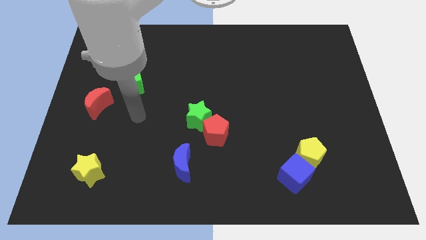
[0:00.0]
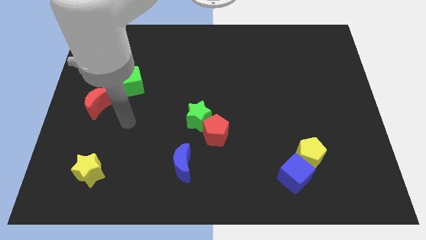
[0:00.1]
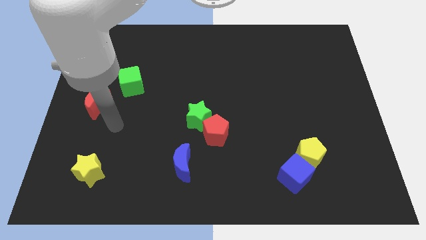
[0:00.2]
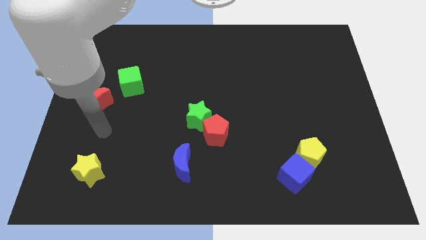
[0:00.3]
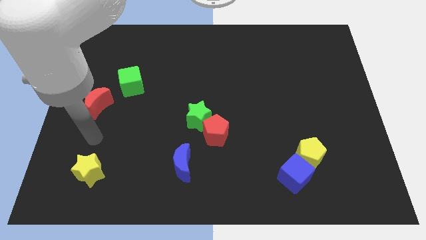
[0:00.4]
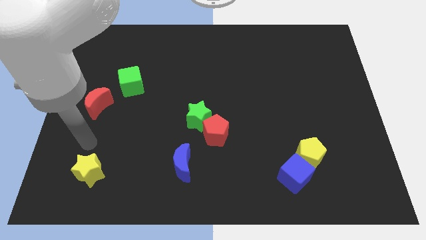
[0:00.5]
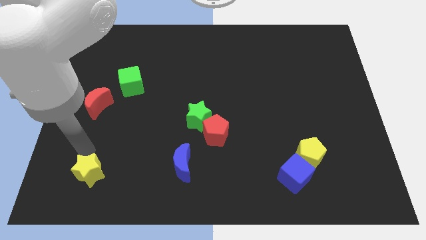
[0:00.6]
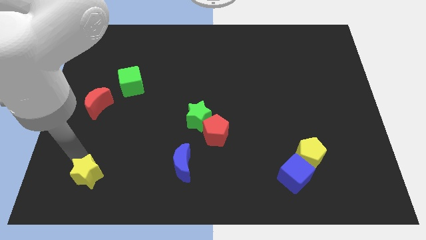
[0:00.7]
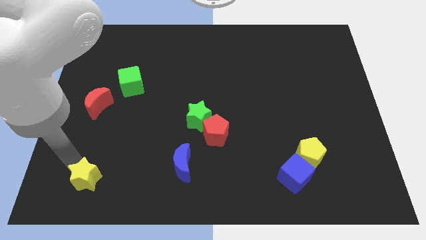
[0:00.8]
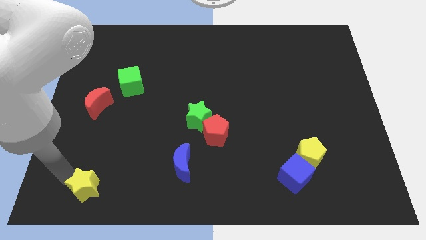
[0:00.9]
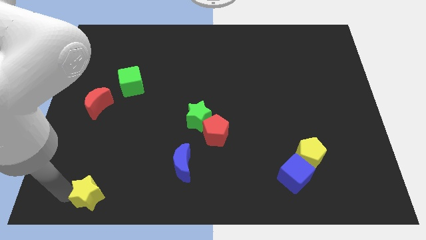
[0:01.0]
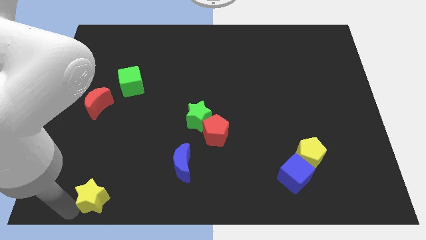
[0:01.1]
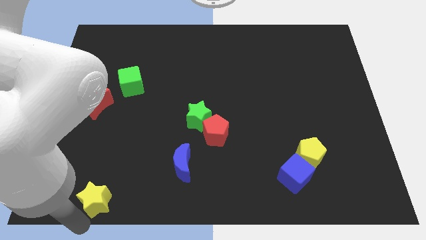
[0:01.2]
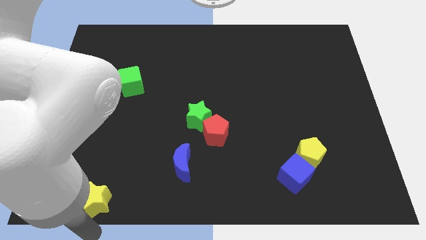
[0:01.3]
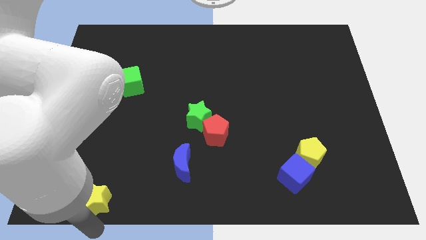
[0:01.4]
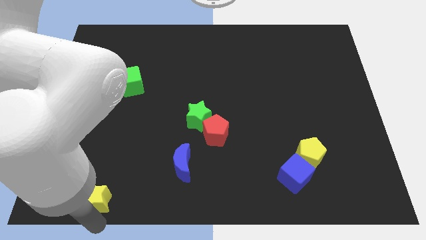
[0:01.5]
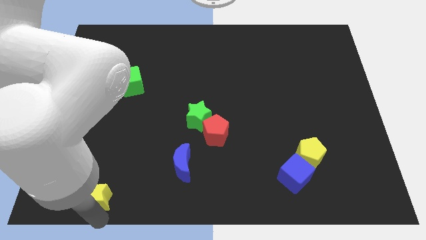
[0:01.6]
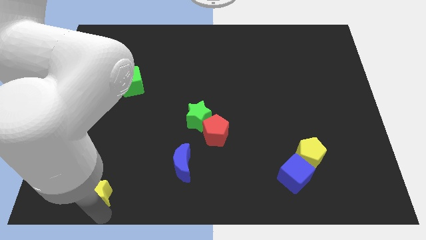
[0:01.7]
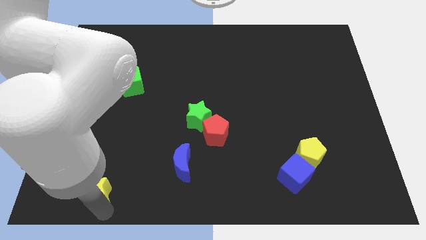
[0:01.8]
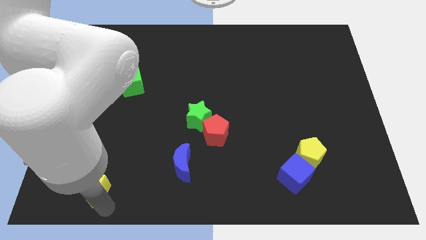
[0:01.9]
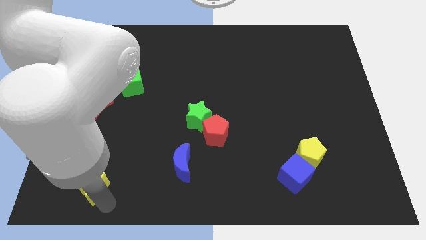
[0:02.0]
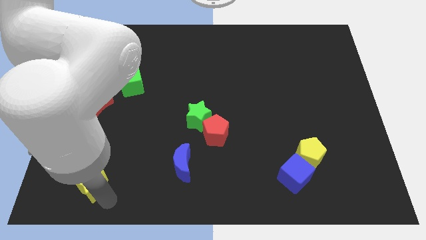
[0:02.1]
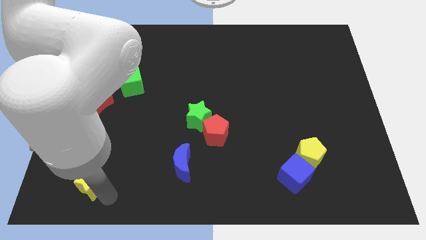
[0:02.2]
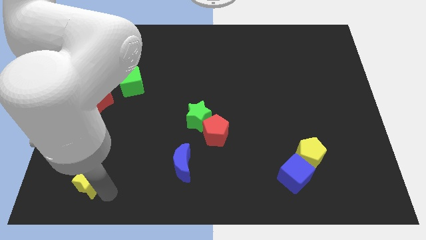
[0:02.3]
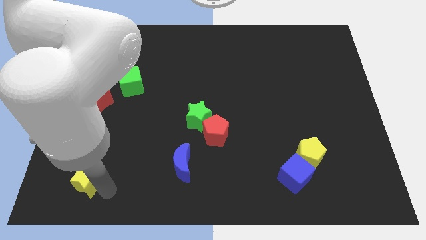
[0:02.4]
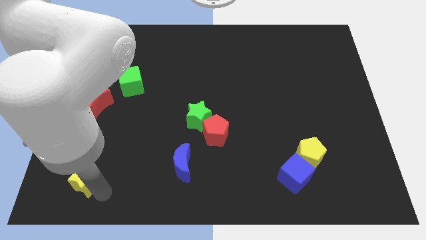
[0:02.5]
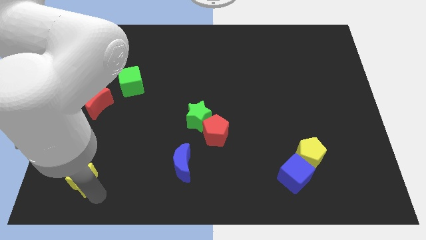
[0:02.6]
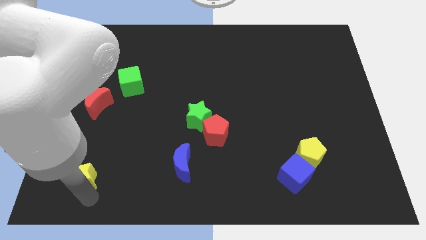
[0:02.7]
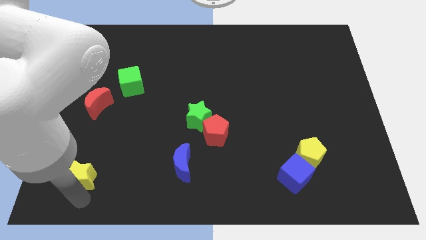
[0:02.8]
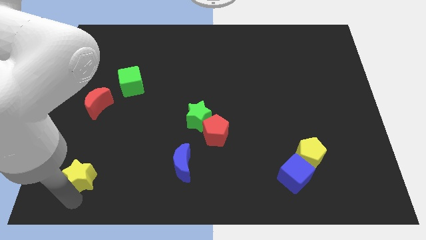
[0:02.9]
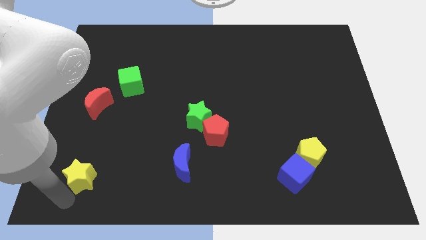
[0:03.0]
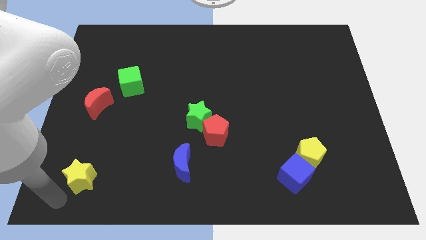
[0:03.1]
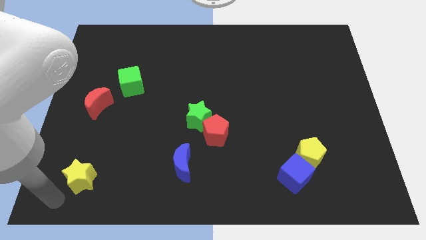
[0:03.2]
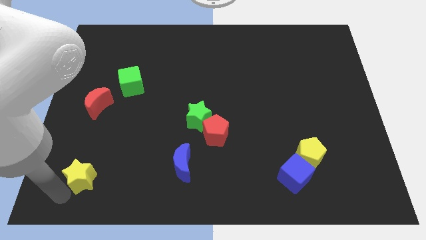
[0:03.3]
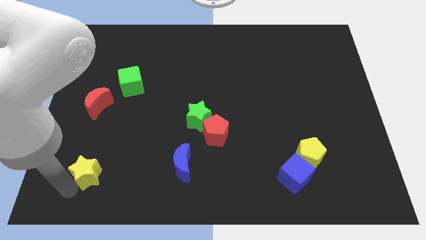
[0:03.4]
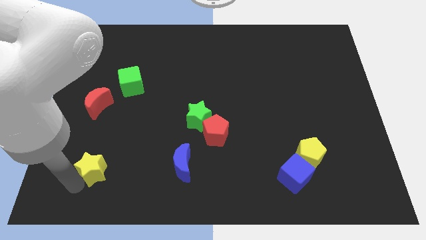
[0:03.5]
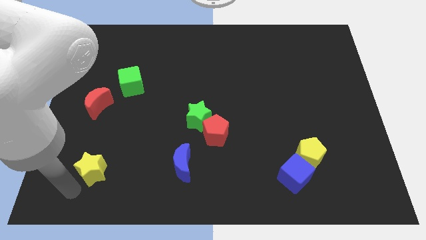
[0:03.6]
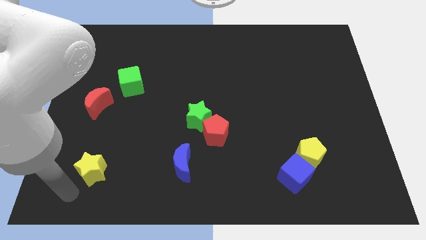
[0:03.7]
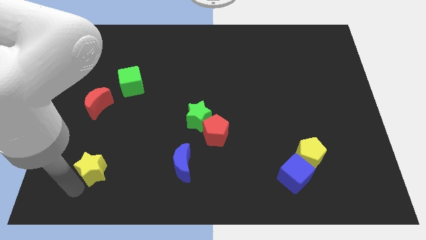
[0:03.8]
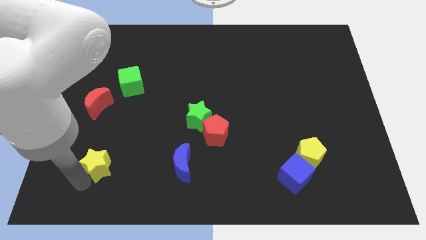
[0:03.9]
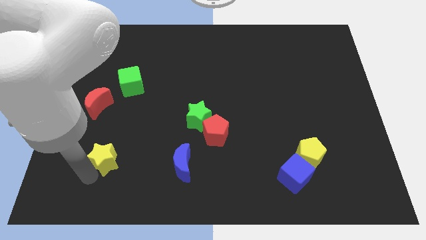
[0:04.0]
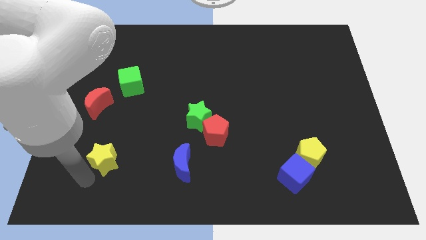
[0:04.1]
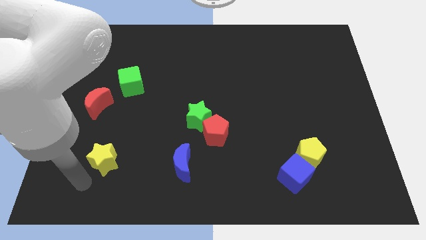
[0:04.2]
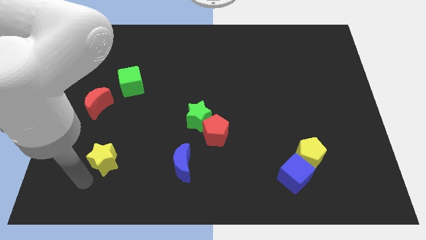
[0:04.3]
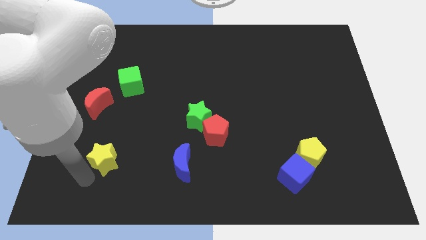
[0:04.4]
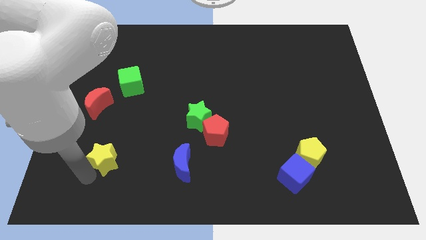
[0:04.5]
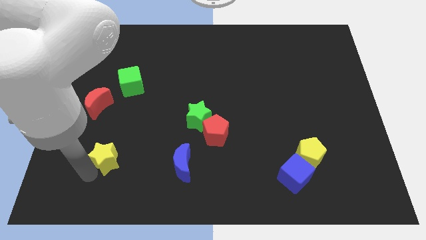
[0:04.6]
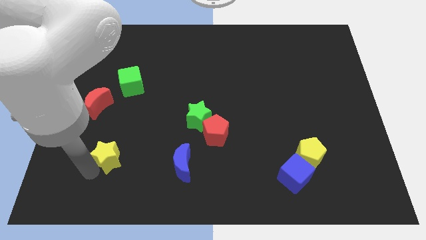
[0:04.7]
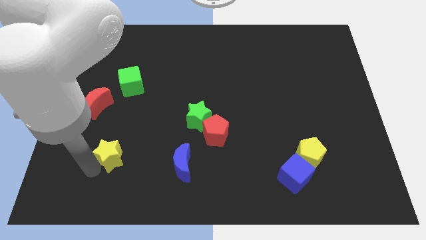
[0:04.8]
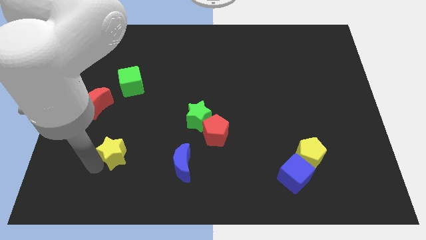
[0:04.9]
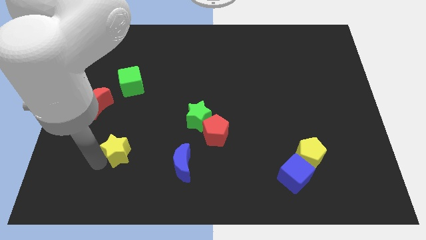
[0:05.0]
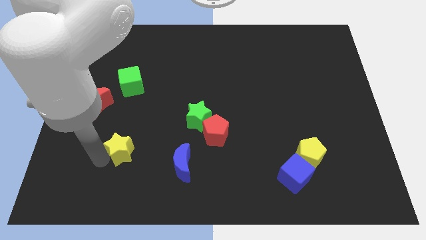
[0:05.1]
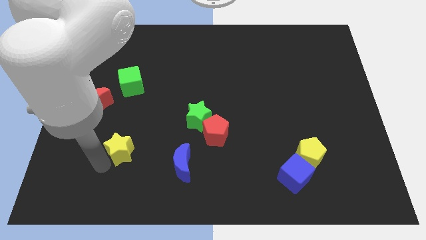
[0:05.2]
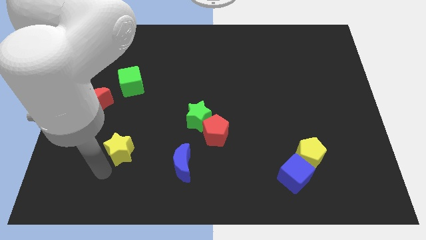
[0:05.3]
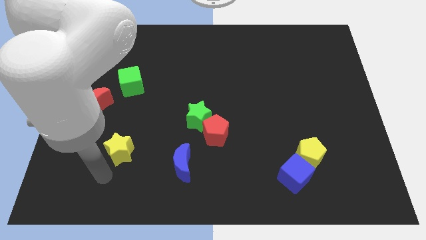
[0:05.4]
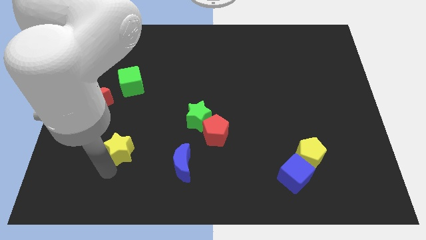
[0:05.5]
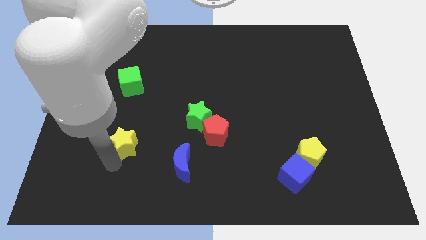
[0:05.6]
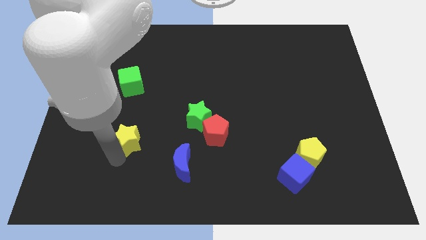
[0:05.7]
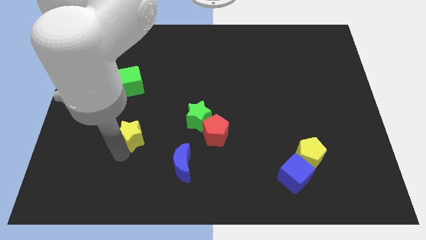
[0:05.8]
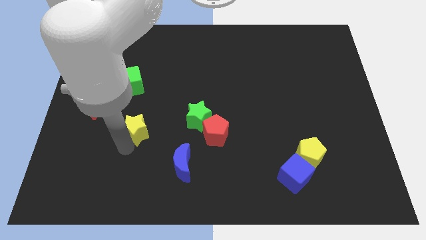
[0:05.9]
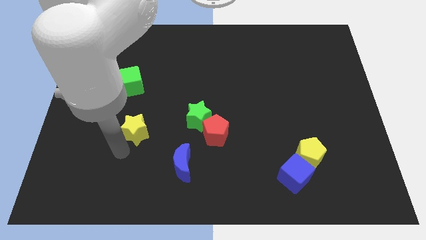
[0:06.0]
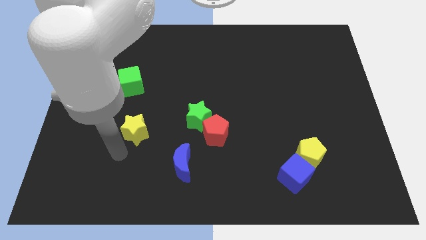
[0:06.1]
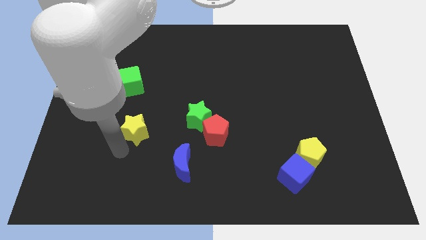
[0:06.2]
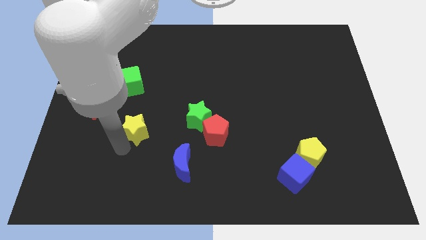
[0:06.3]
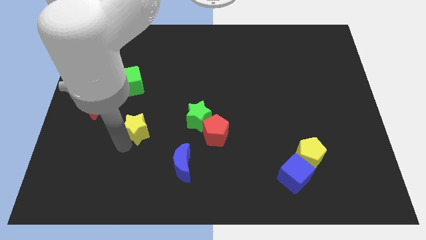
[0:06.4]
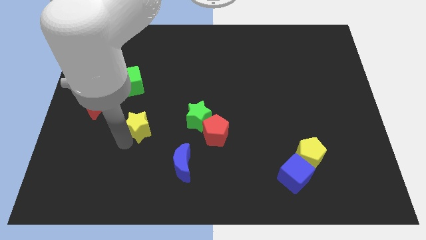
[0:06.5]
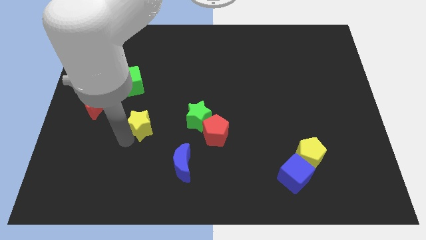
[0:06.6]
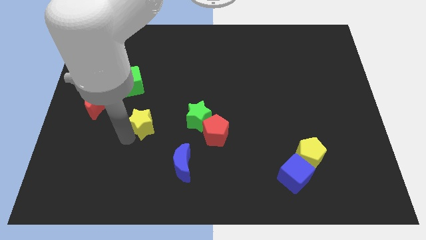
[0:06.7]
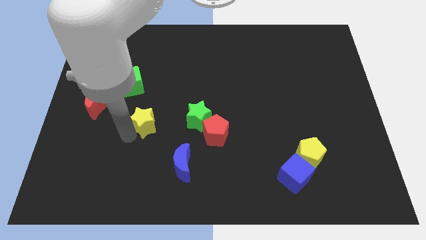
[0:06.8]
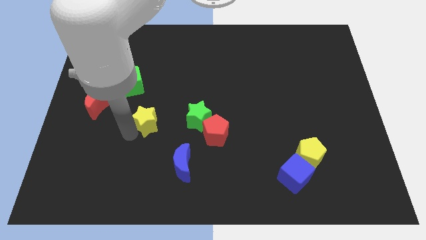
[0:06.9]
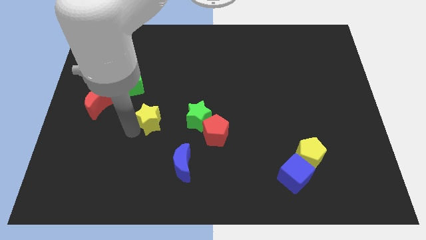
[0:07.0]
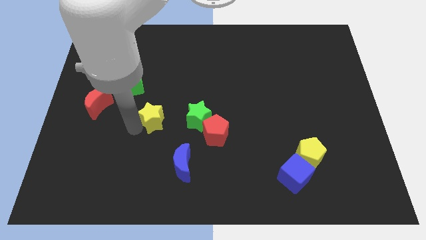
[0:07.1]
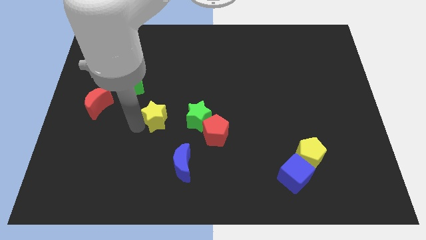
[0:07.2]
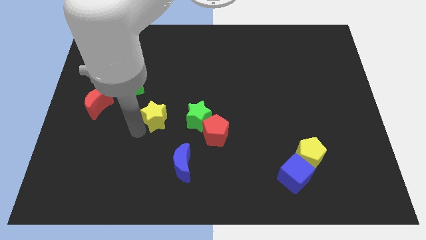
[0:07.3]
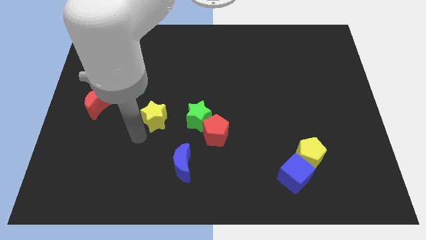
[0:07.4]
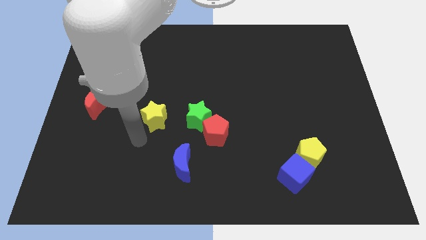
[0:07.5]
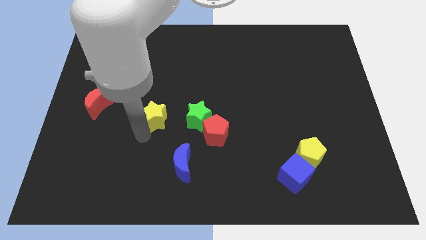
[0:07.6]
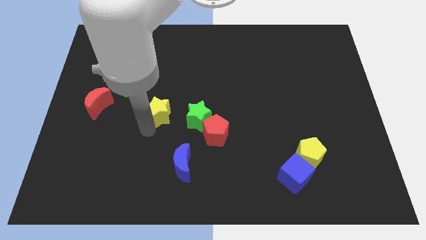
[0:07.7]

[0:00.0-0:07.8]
push the yellow star up and right

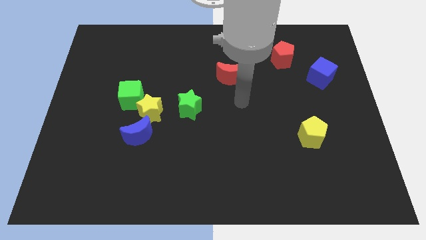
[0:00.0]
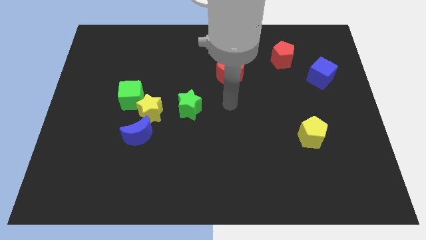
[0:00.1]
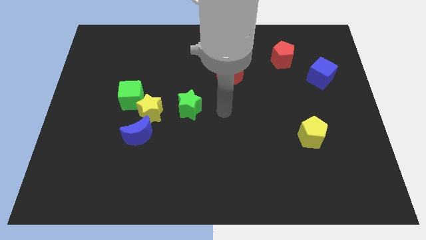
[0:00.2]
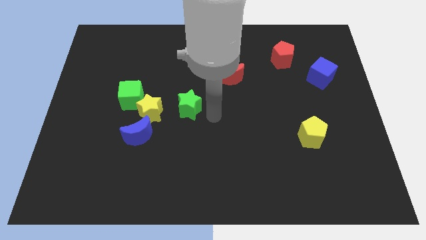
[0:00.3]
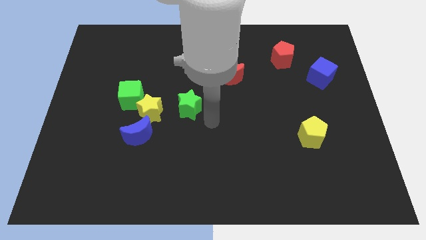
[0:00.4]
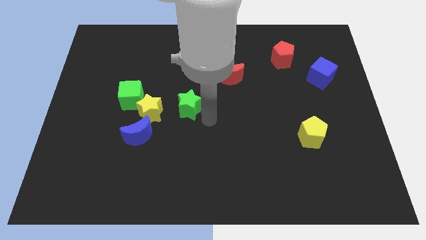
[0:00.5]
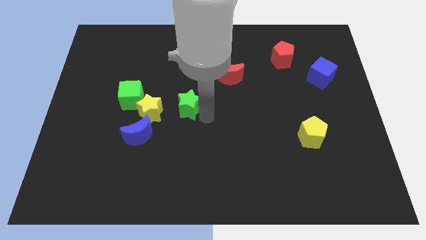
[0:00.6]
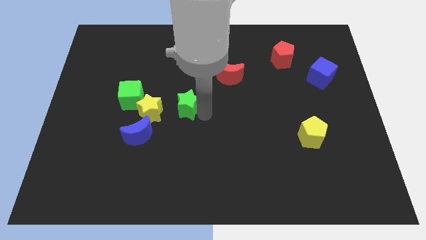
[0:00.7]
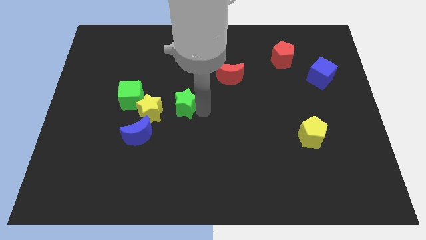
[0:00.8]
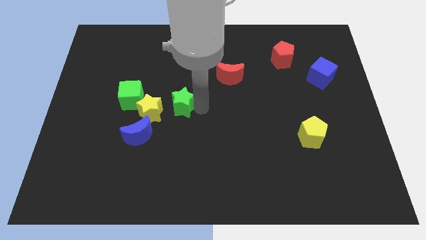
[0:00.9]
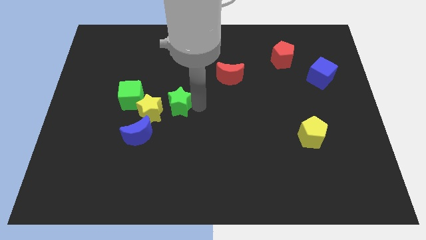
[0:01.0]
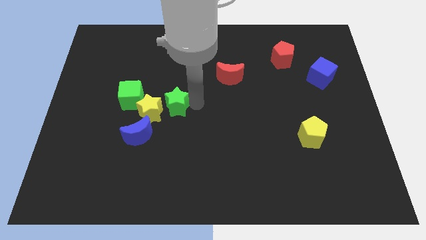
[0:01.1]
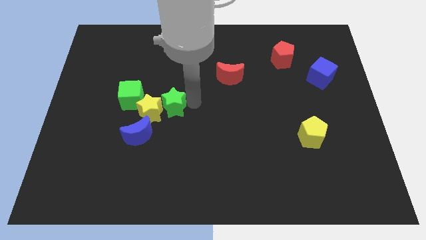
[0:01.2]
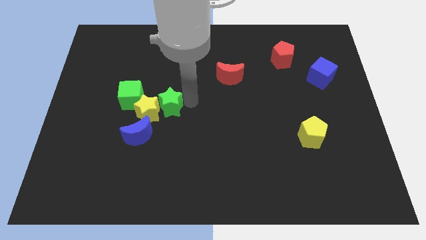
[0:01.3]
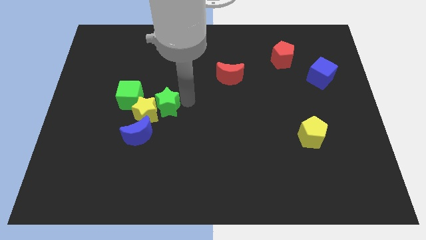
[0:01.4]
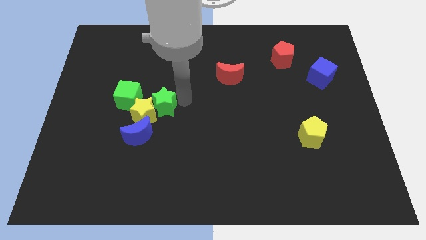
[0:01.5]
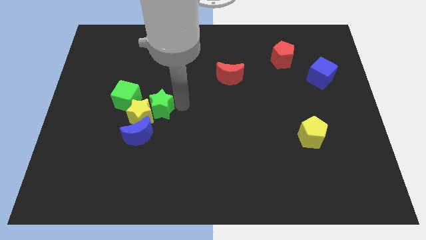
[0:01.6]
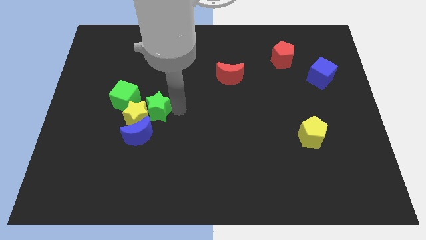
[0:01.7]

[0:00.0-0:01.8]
push the green star a bit left
